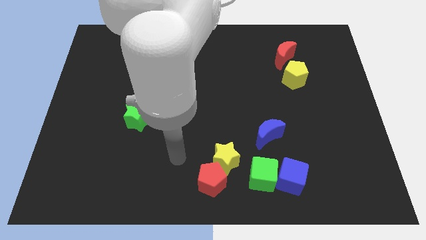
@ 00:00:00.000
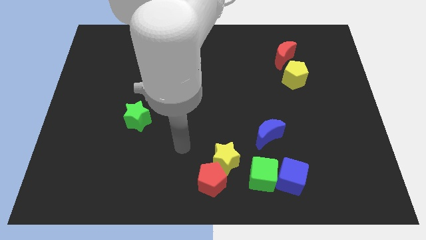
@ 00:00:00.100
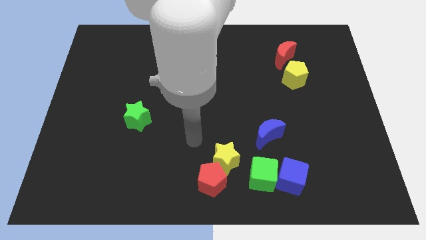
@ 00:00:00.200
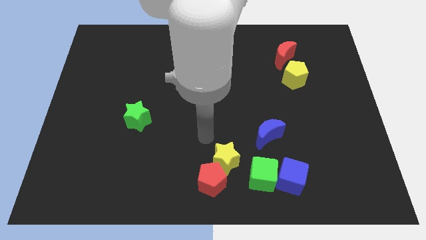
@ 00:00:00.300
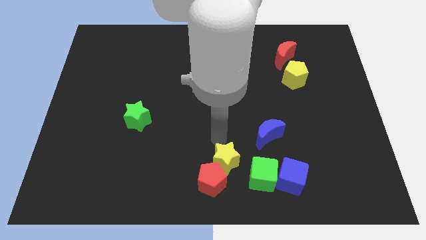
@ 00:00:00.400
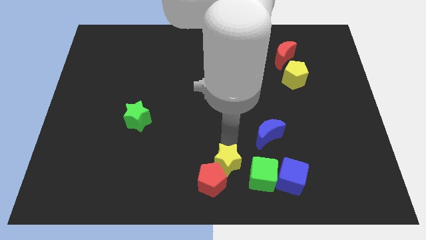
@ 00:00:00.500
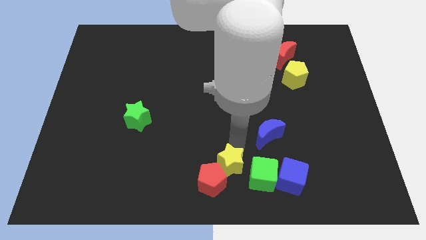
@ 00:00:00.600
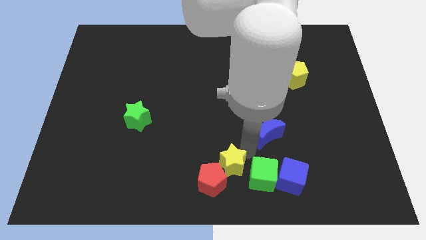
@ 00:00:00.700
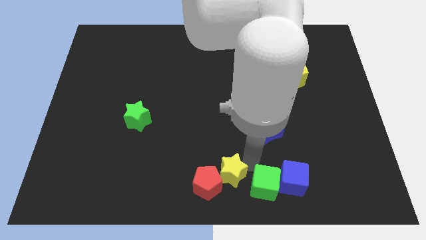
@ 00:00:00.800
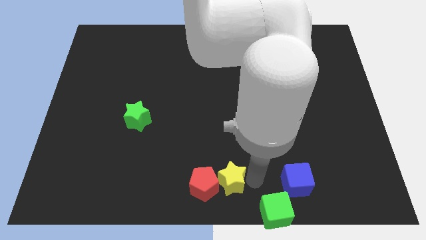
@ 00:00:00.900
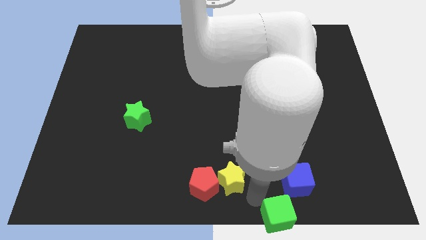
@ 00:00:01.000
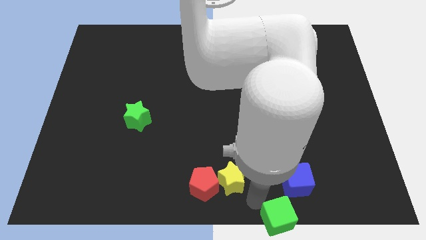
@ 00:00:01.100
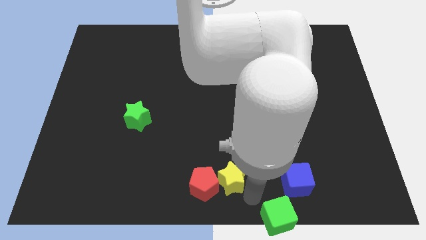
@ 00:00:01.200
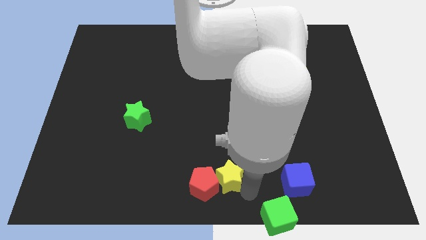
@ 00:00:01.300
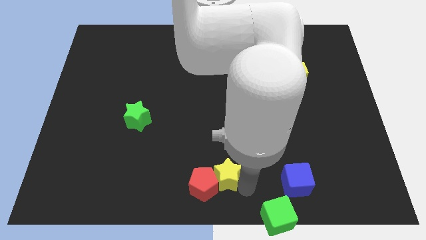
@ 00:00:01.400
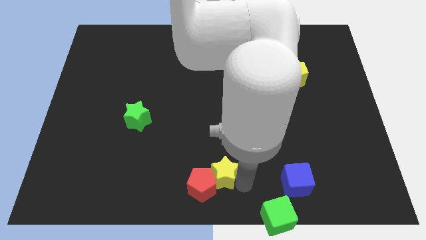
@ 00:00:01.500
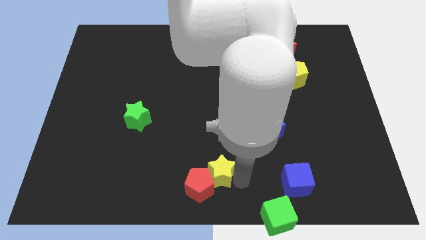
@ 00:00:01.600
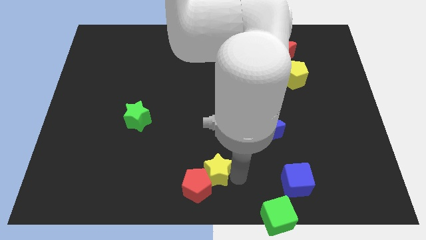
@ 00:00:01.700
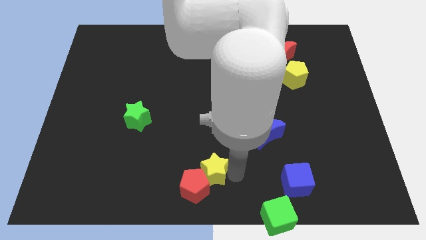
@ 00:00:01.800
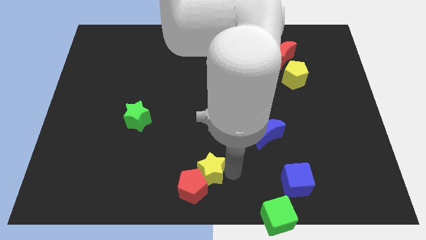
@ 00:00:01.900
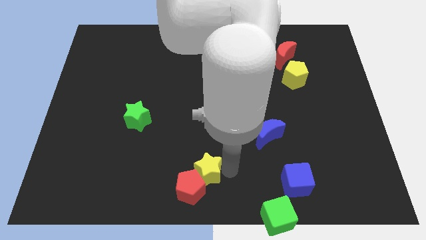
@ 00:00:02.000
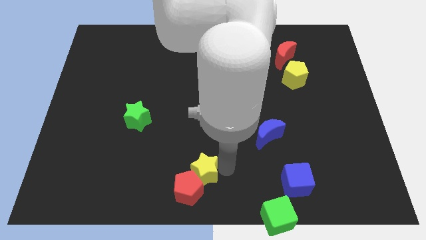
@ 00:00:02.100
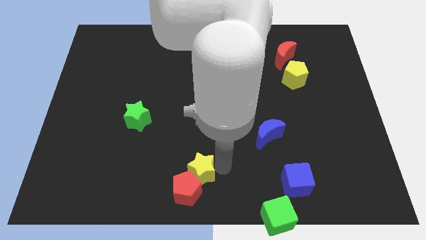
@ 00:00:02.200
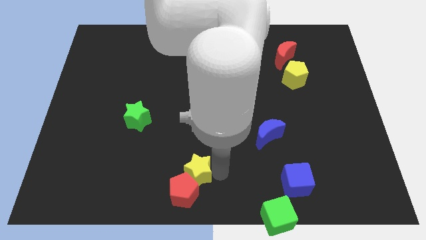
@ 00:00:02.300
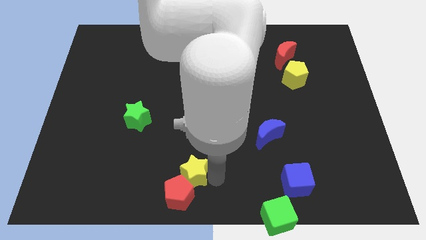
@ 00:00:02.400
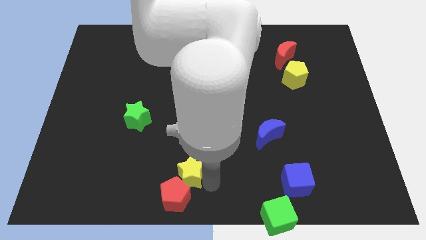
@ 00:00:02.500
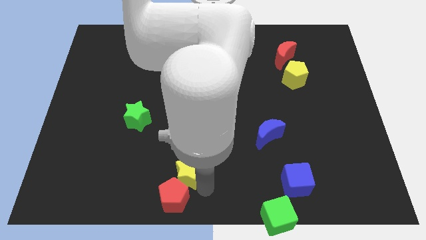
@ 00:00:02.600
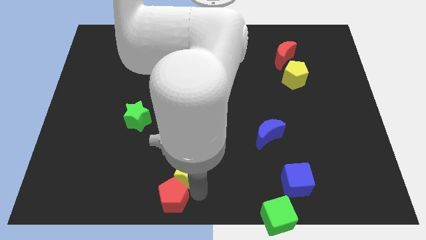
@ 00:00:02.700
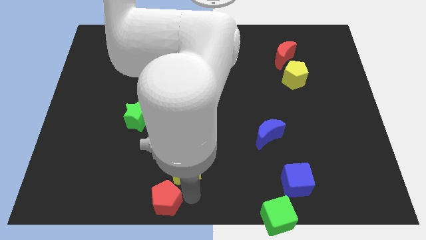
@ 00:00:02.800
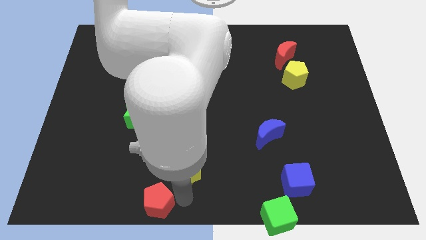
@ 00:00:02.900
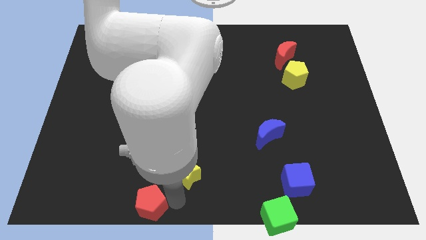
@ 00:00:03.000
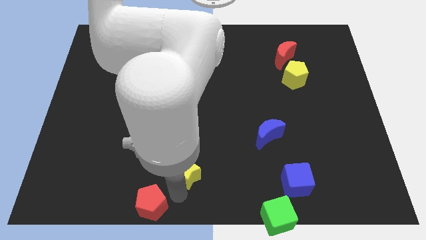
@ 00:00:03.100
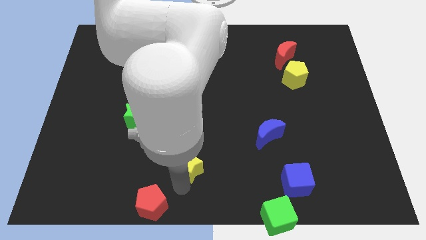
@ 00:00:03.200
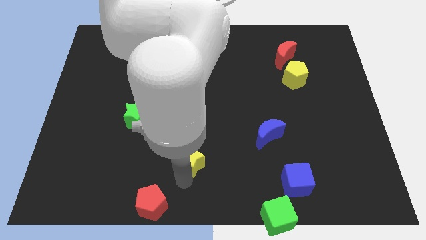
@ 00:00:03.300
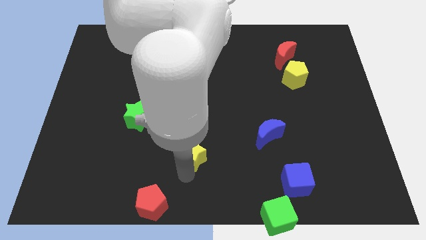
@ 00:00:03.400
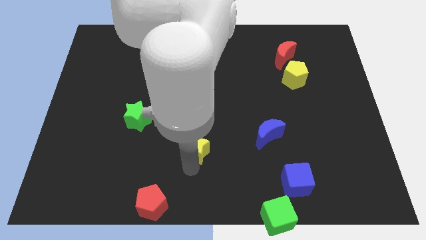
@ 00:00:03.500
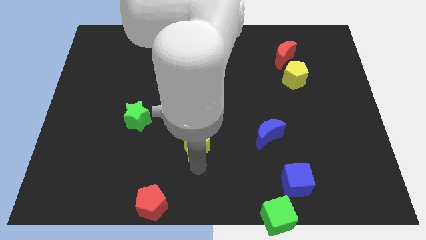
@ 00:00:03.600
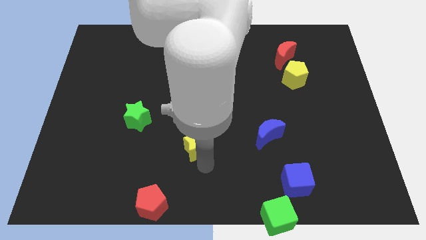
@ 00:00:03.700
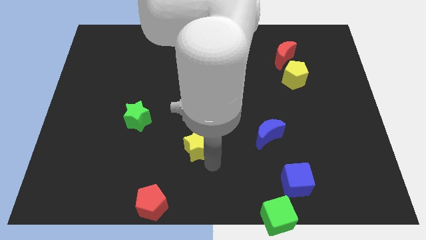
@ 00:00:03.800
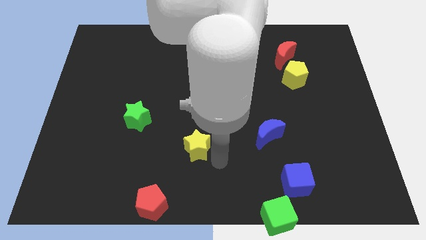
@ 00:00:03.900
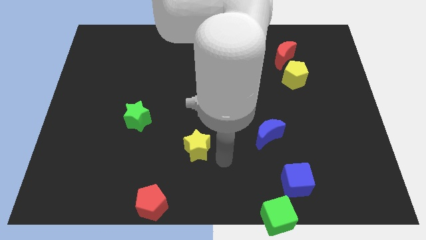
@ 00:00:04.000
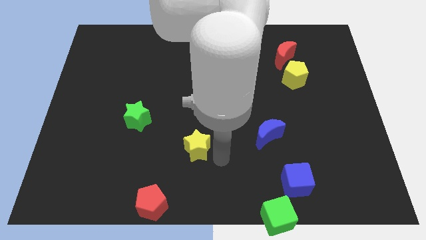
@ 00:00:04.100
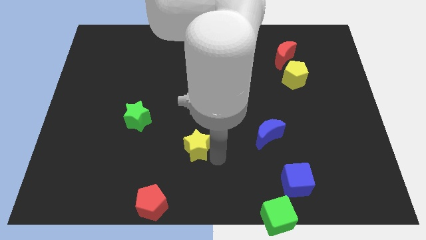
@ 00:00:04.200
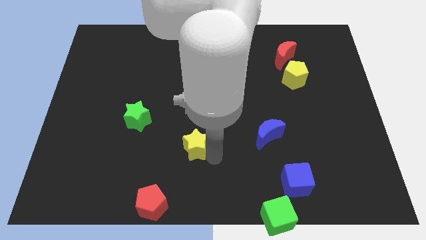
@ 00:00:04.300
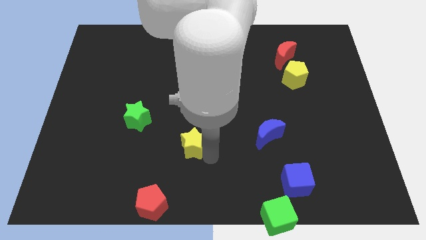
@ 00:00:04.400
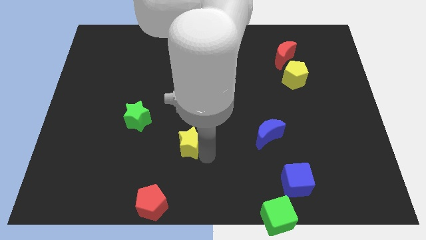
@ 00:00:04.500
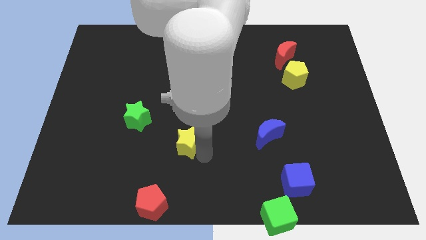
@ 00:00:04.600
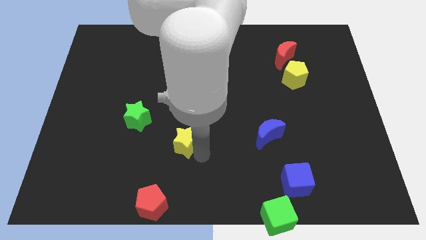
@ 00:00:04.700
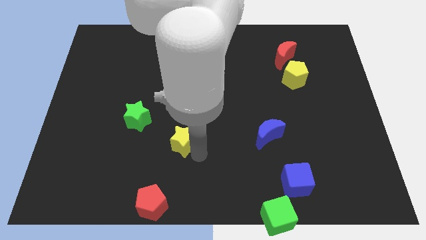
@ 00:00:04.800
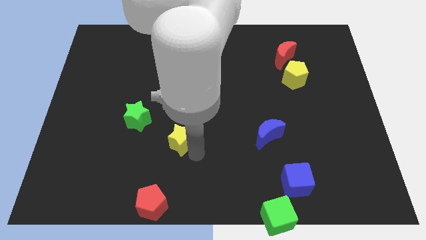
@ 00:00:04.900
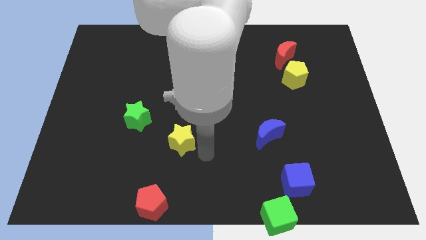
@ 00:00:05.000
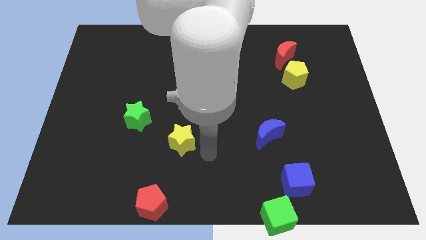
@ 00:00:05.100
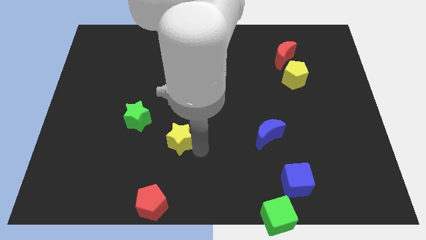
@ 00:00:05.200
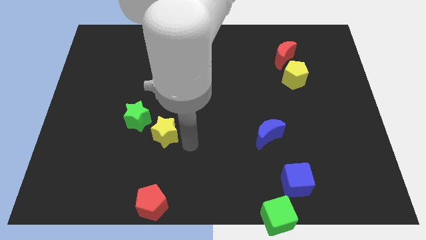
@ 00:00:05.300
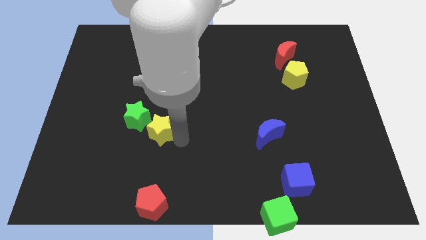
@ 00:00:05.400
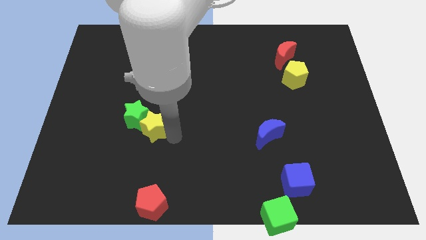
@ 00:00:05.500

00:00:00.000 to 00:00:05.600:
slide the yellow star close to the green star

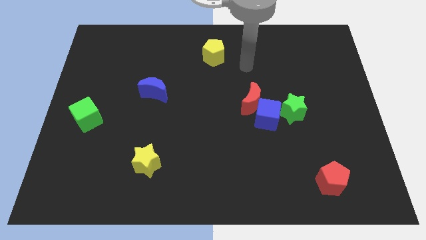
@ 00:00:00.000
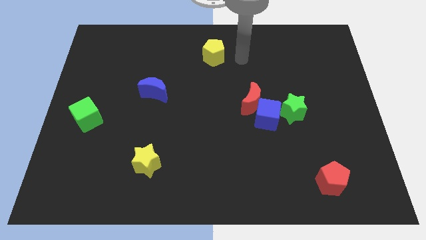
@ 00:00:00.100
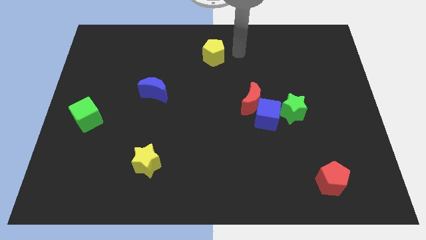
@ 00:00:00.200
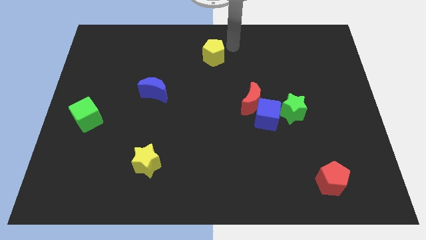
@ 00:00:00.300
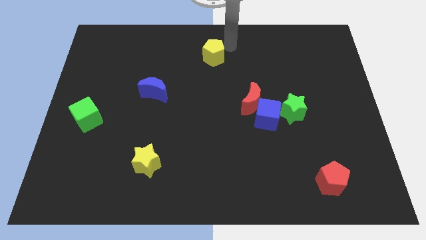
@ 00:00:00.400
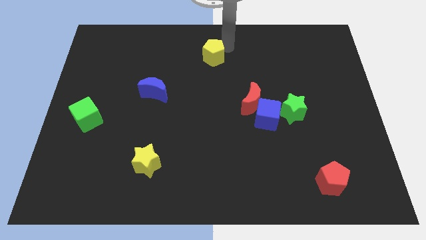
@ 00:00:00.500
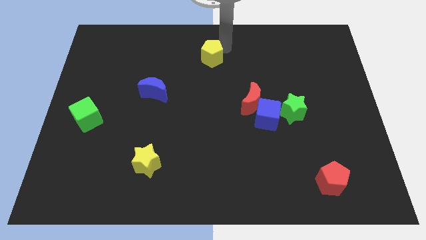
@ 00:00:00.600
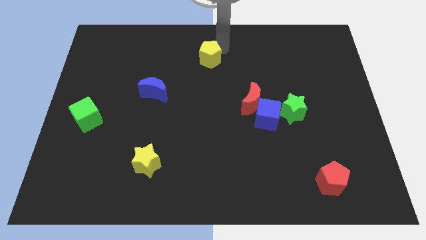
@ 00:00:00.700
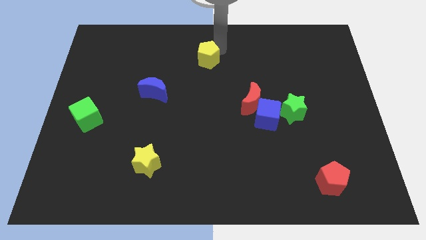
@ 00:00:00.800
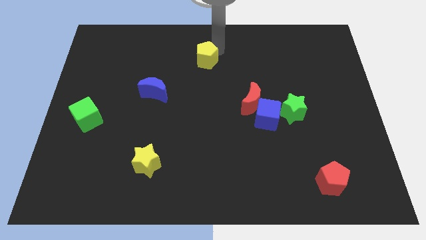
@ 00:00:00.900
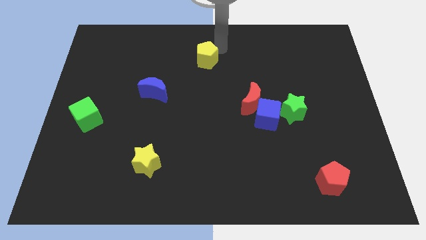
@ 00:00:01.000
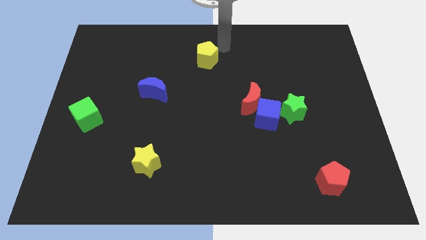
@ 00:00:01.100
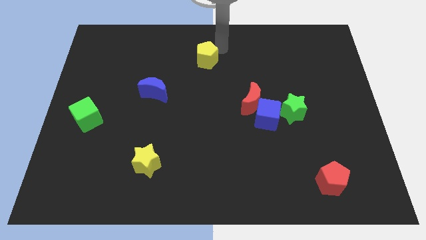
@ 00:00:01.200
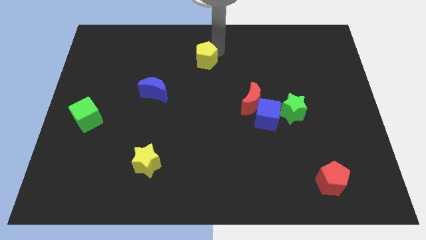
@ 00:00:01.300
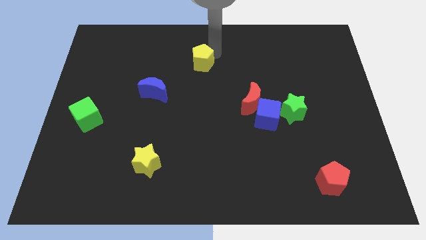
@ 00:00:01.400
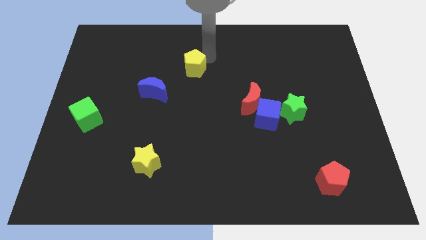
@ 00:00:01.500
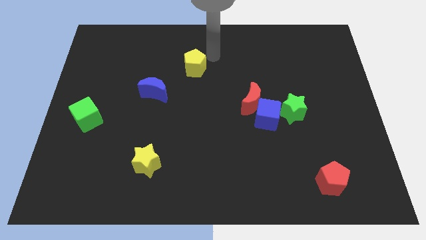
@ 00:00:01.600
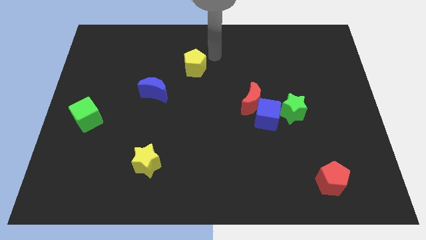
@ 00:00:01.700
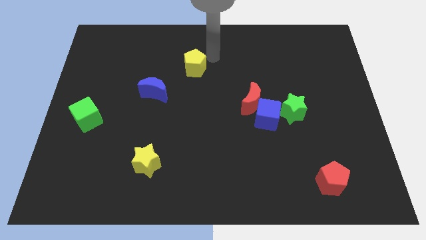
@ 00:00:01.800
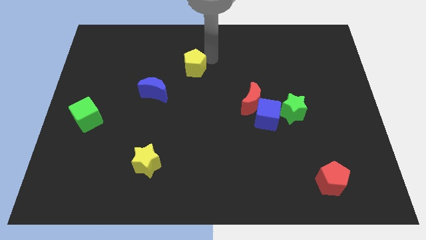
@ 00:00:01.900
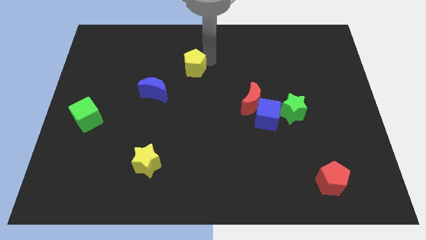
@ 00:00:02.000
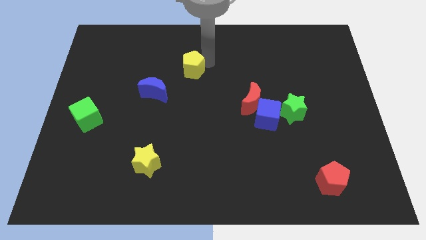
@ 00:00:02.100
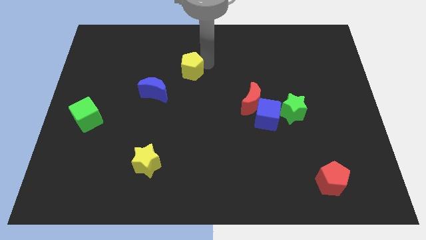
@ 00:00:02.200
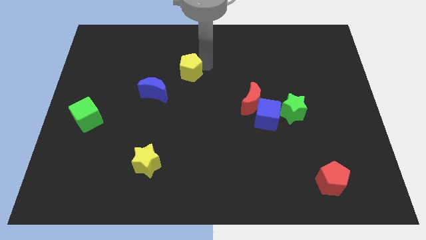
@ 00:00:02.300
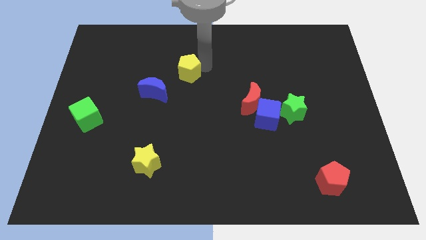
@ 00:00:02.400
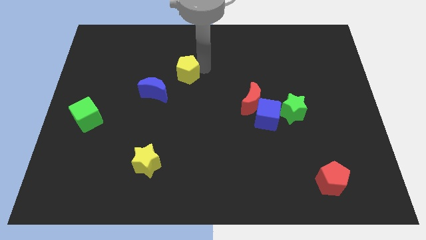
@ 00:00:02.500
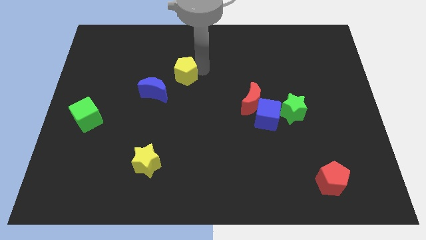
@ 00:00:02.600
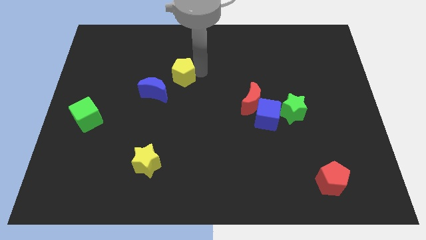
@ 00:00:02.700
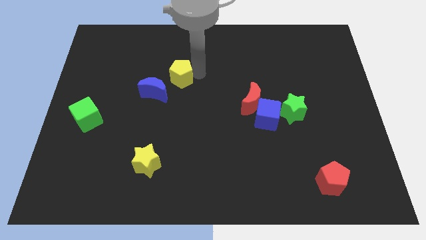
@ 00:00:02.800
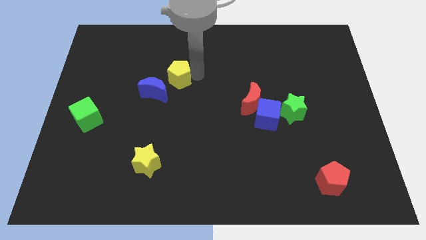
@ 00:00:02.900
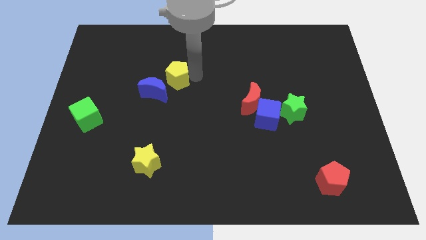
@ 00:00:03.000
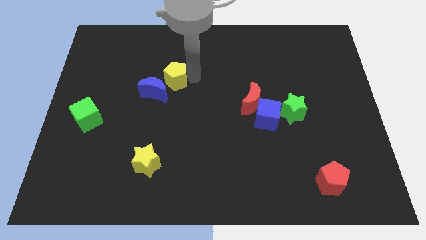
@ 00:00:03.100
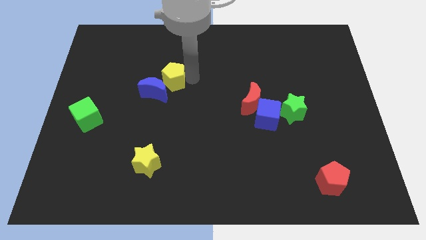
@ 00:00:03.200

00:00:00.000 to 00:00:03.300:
put the yellow pentagon to the blue moon
